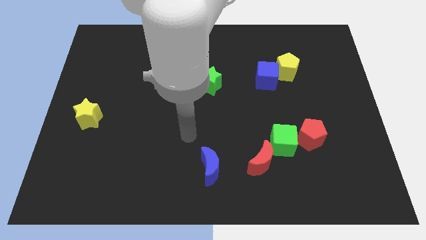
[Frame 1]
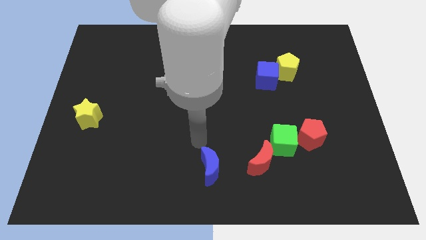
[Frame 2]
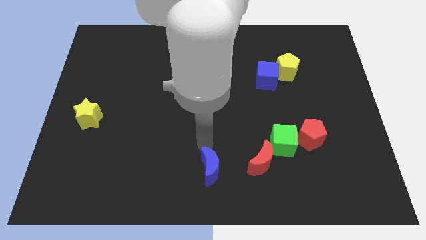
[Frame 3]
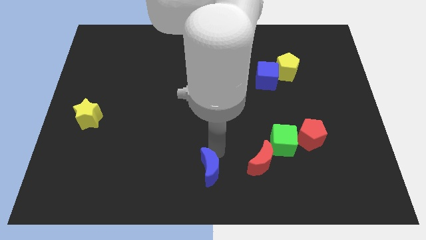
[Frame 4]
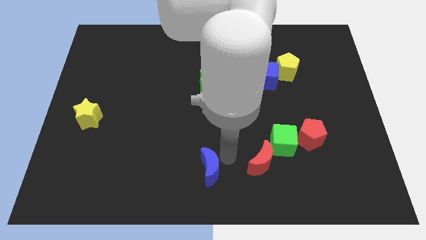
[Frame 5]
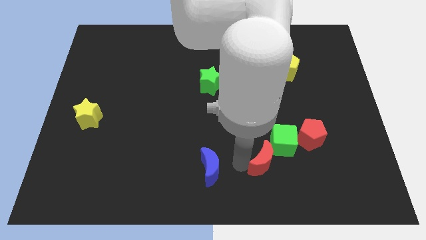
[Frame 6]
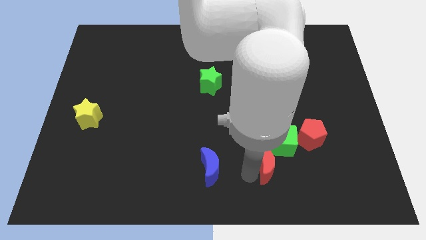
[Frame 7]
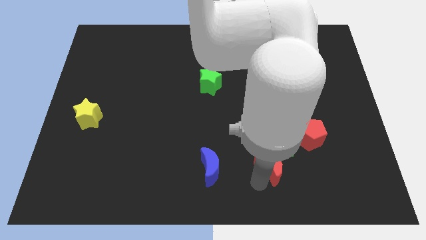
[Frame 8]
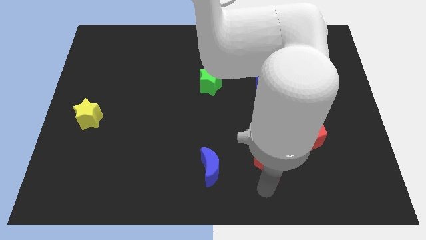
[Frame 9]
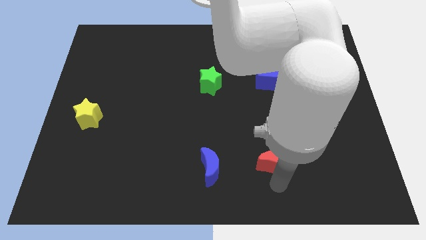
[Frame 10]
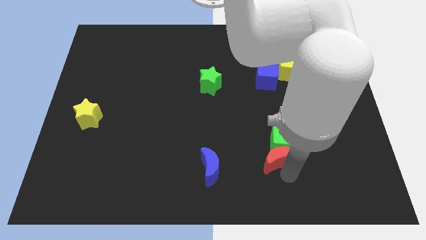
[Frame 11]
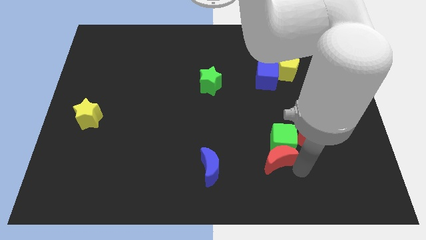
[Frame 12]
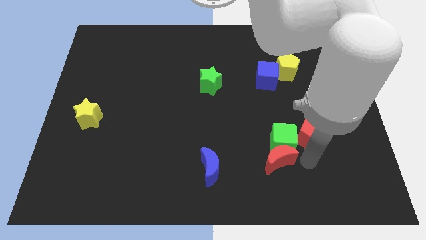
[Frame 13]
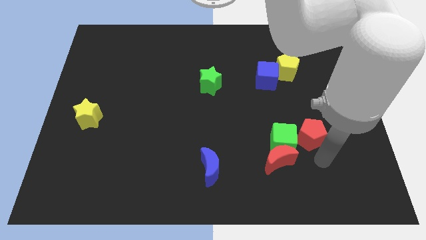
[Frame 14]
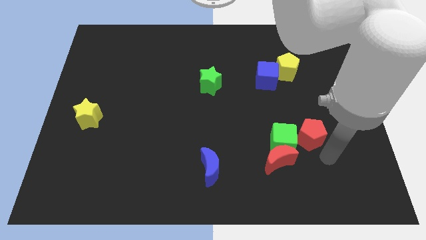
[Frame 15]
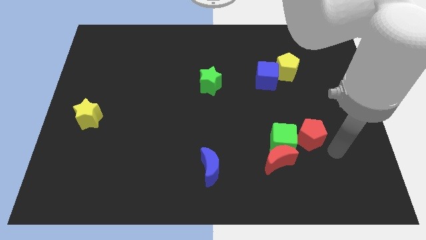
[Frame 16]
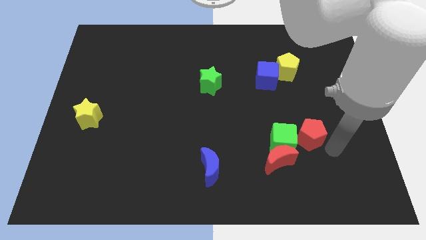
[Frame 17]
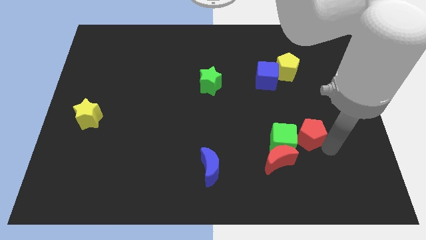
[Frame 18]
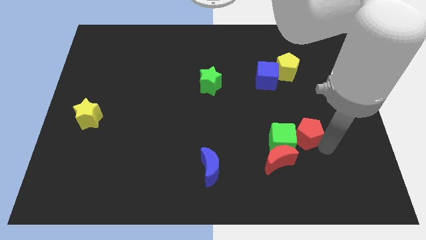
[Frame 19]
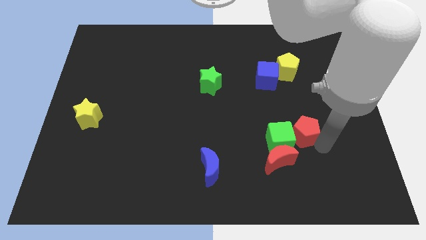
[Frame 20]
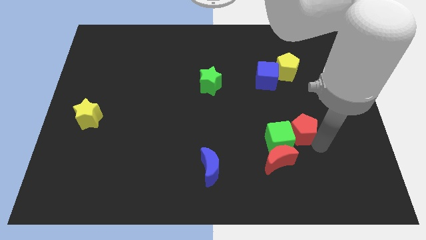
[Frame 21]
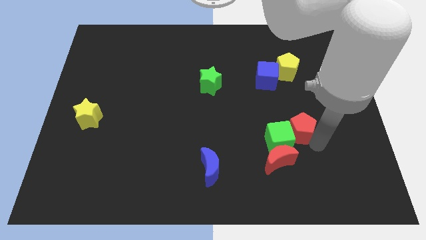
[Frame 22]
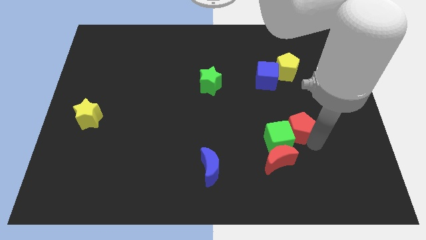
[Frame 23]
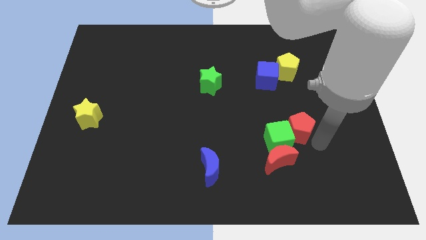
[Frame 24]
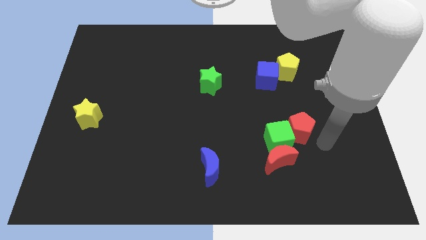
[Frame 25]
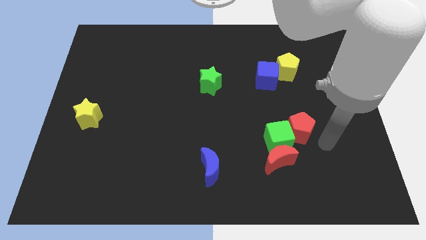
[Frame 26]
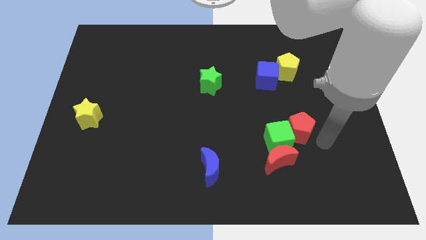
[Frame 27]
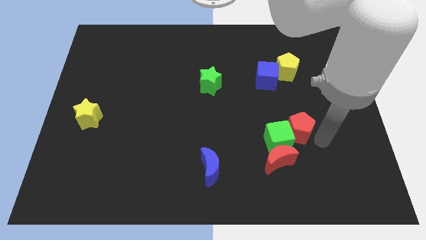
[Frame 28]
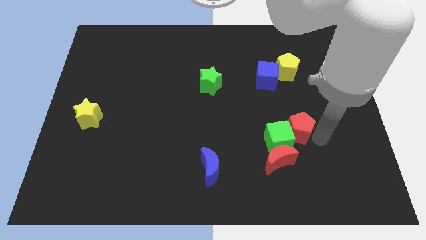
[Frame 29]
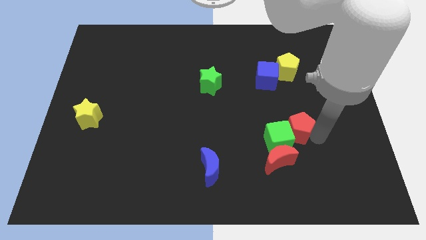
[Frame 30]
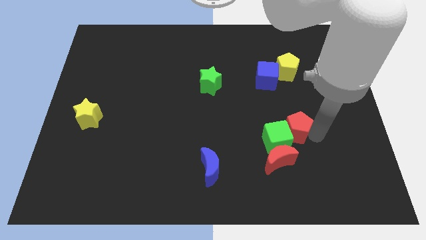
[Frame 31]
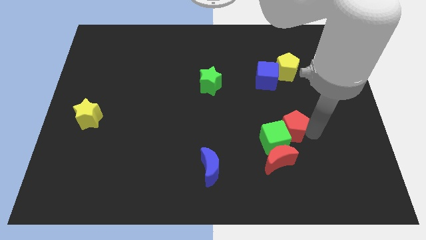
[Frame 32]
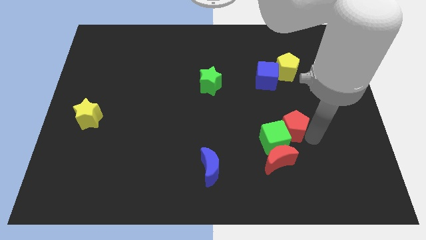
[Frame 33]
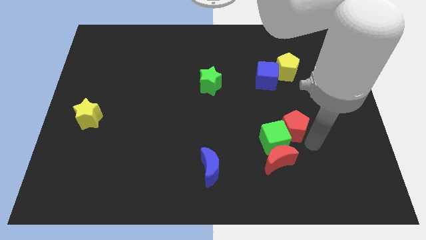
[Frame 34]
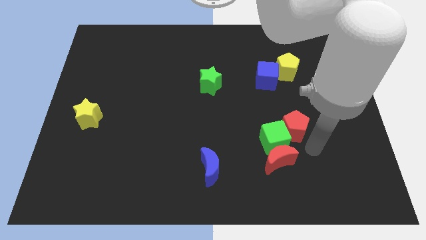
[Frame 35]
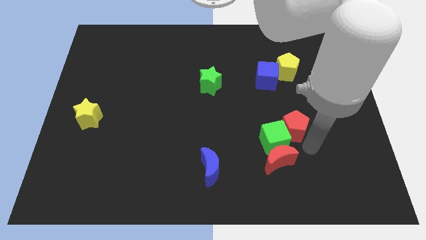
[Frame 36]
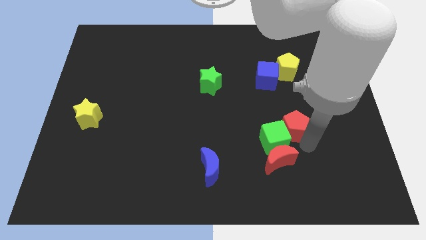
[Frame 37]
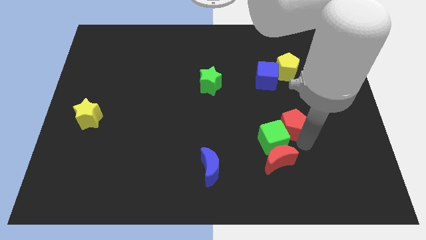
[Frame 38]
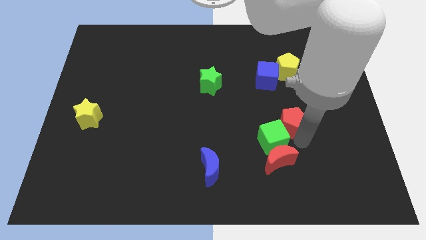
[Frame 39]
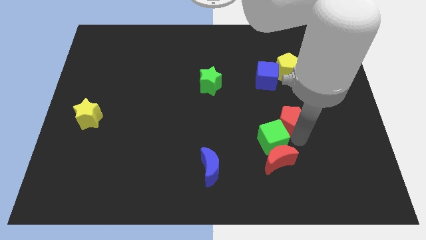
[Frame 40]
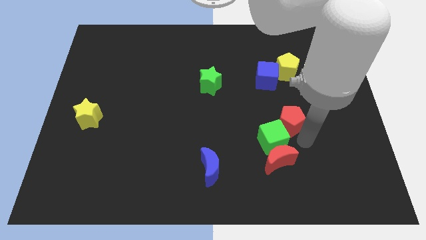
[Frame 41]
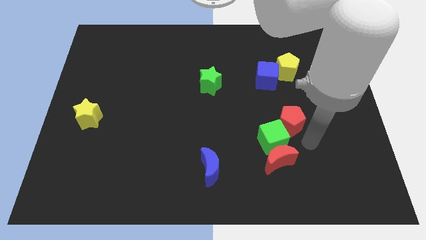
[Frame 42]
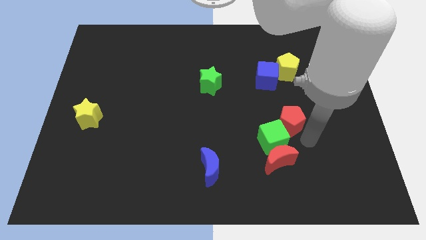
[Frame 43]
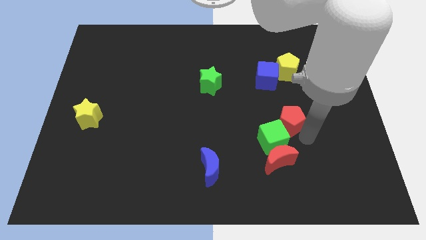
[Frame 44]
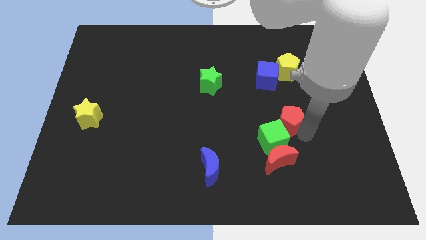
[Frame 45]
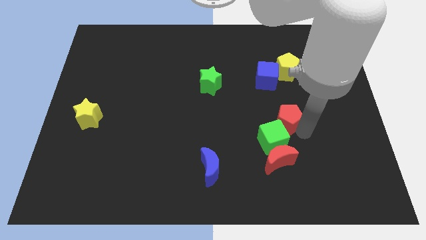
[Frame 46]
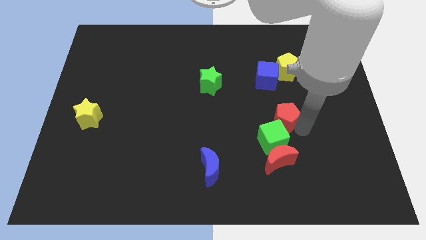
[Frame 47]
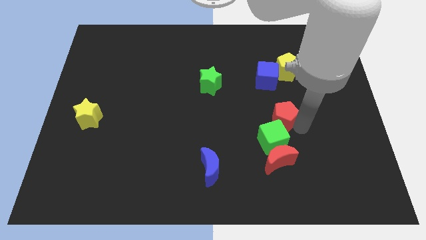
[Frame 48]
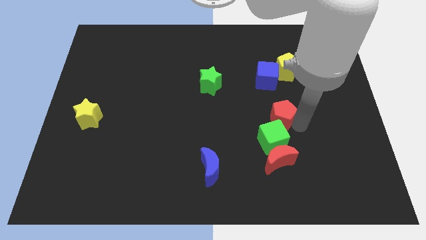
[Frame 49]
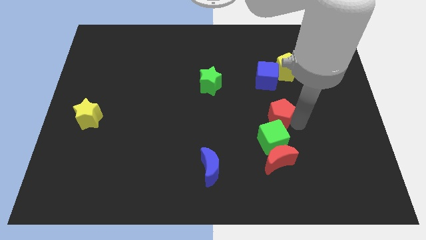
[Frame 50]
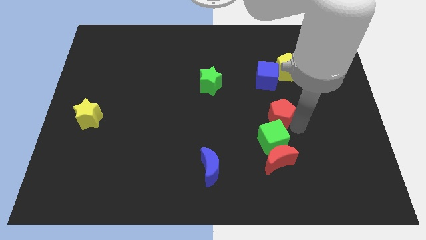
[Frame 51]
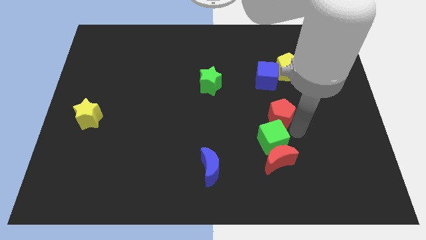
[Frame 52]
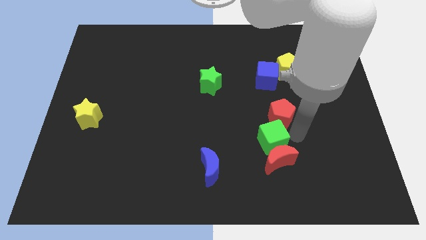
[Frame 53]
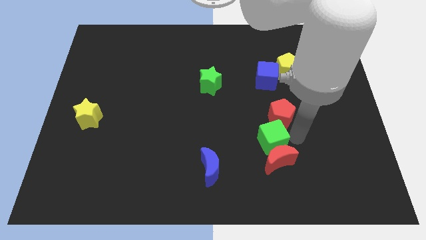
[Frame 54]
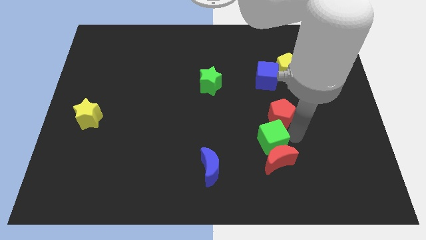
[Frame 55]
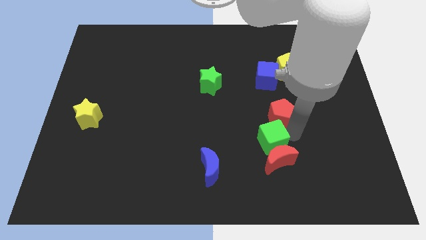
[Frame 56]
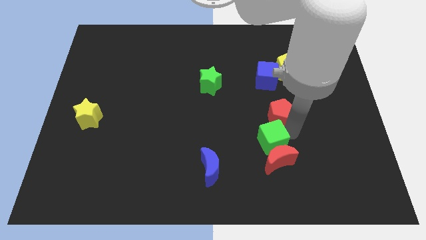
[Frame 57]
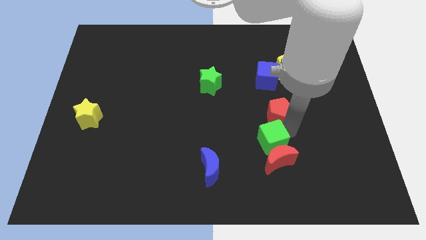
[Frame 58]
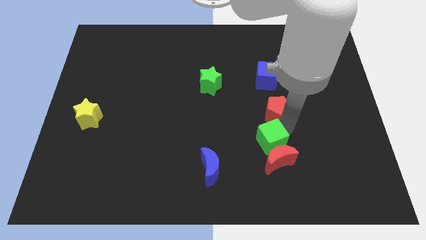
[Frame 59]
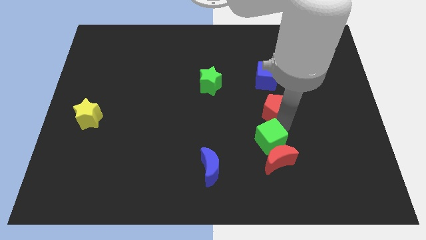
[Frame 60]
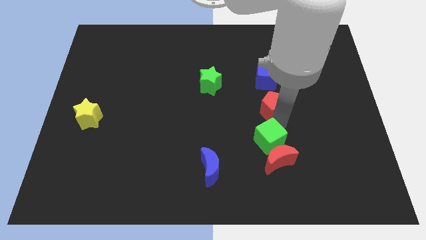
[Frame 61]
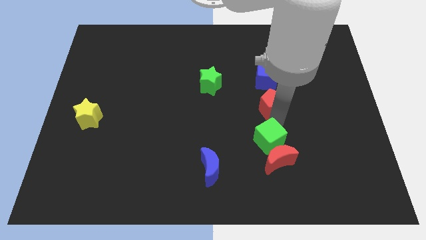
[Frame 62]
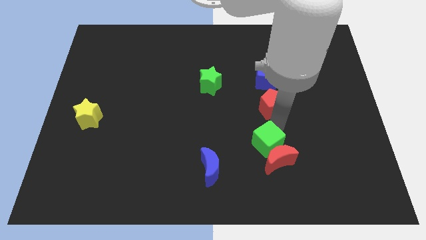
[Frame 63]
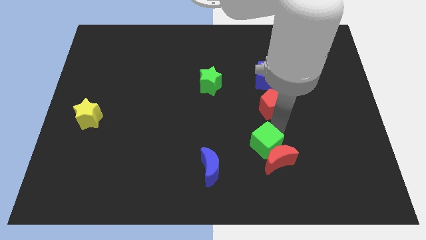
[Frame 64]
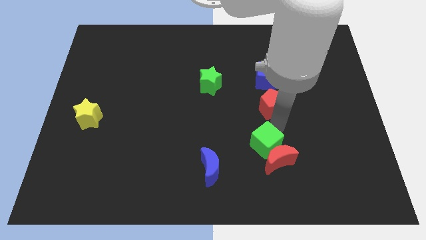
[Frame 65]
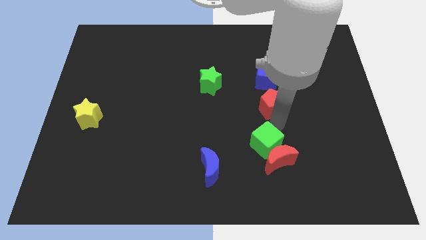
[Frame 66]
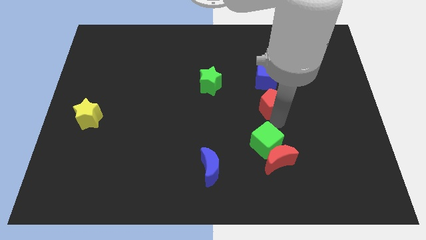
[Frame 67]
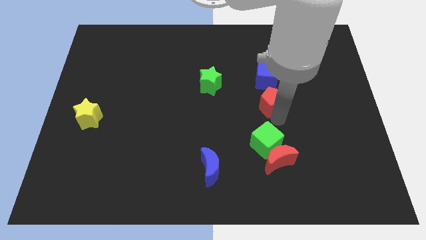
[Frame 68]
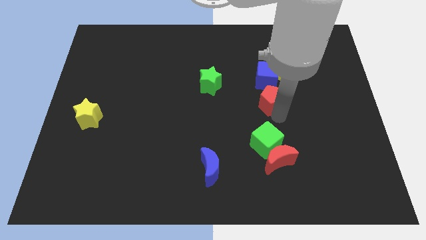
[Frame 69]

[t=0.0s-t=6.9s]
slide the red pentagon to the bottom left of the yellow pentagon

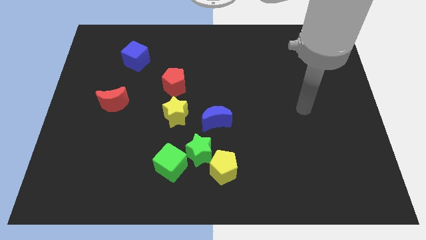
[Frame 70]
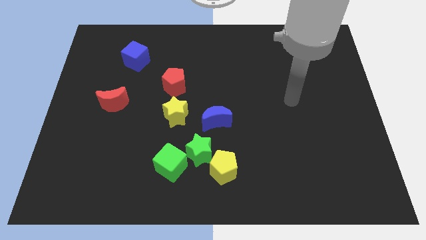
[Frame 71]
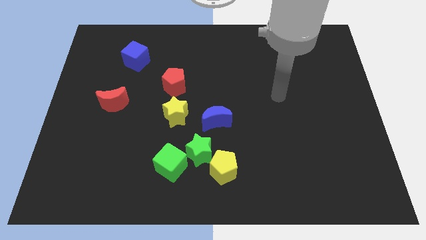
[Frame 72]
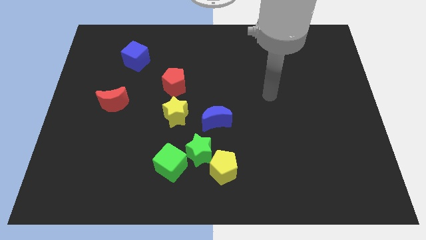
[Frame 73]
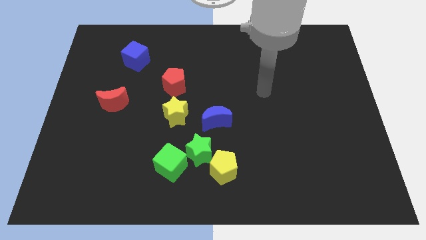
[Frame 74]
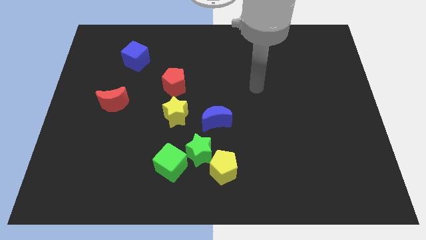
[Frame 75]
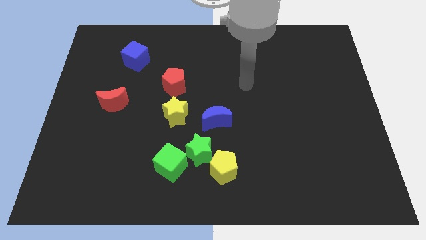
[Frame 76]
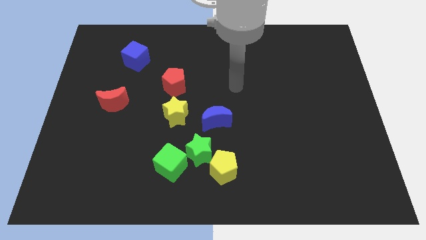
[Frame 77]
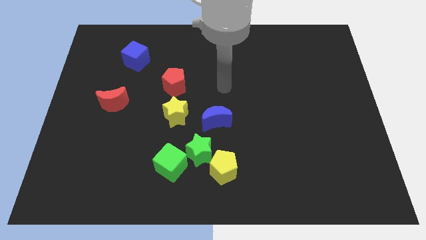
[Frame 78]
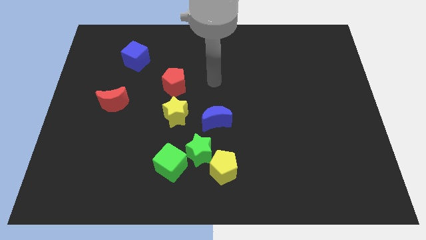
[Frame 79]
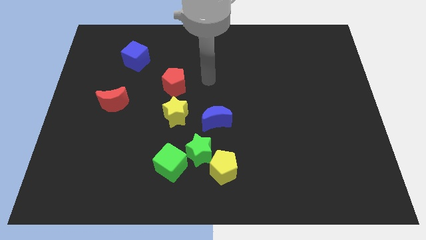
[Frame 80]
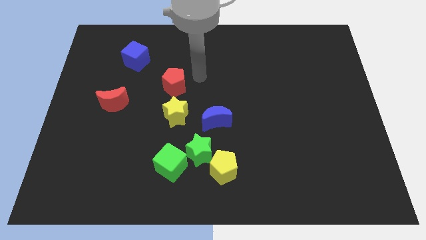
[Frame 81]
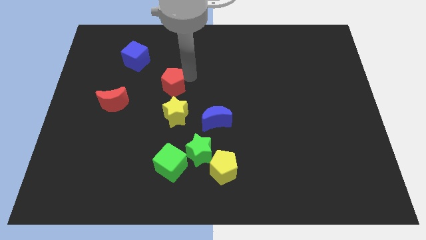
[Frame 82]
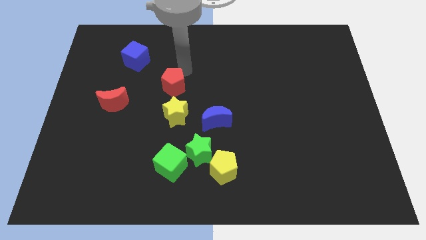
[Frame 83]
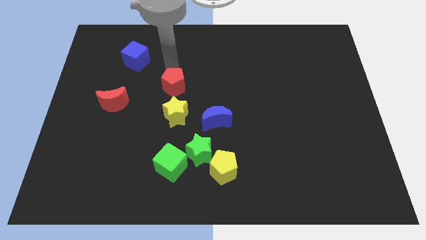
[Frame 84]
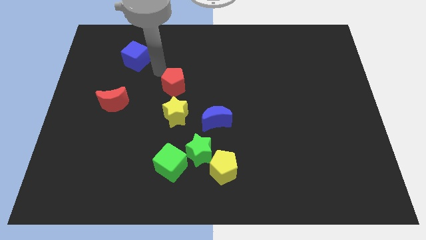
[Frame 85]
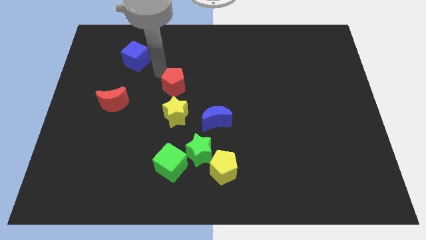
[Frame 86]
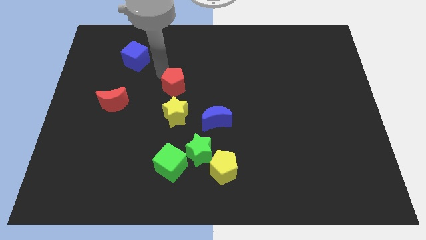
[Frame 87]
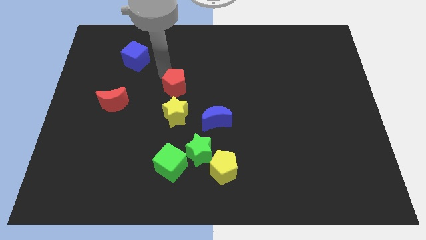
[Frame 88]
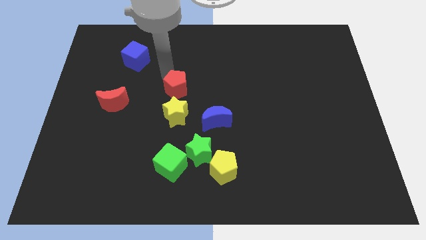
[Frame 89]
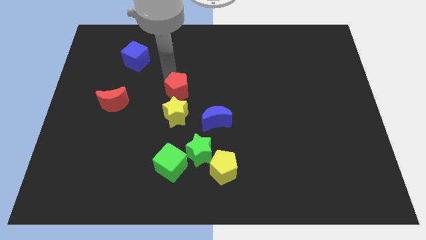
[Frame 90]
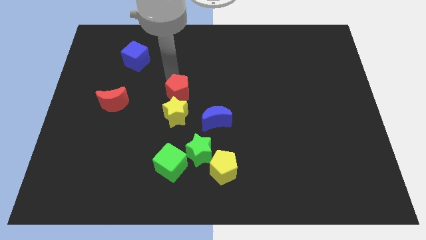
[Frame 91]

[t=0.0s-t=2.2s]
push the red pentagon to the top left of the blue moon
